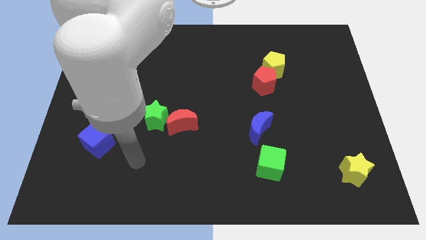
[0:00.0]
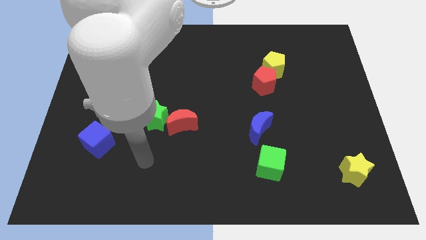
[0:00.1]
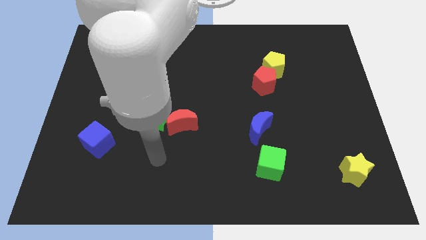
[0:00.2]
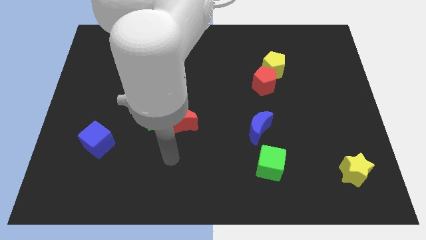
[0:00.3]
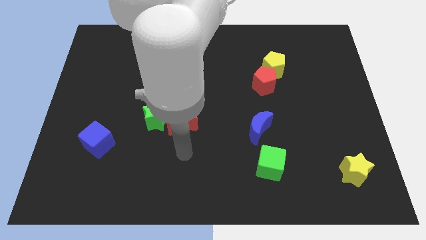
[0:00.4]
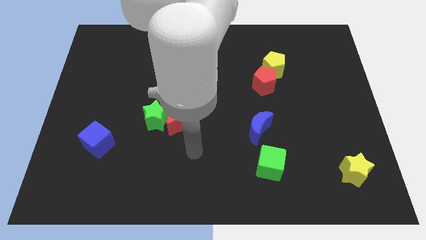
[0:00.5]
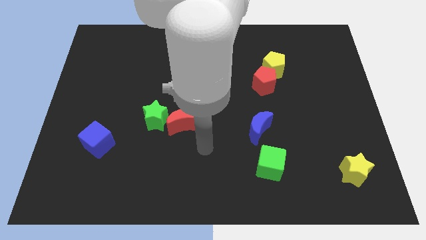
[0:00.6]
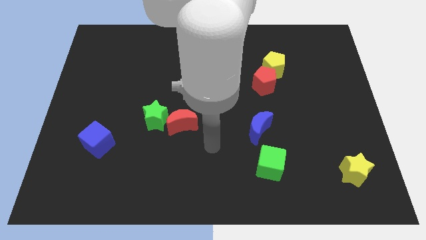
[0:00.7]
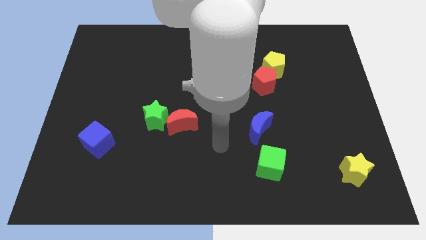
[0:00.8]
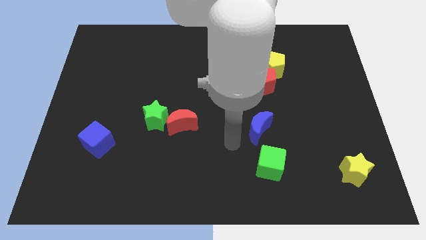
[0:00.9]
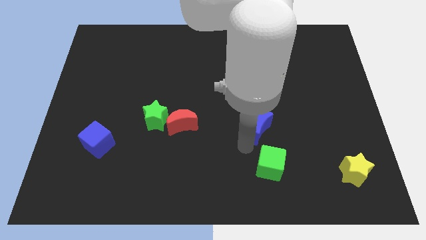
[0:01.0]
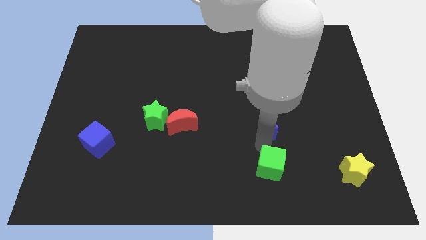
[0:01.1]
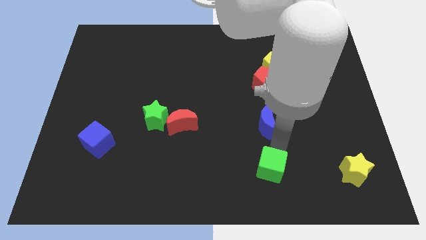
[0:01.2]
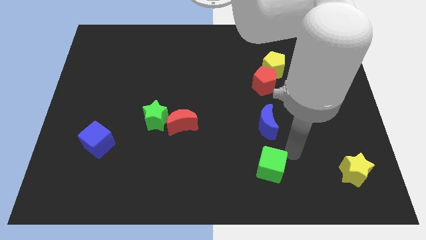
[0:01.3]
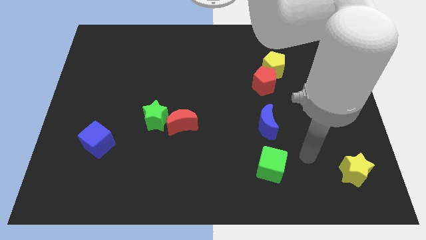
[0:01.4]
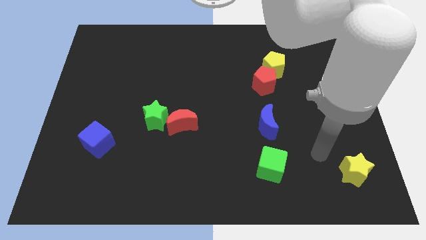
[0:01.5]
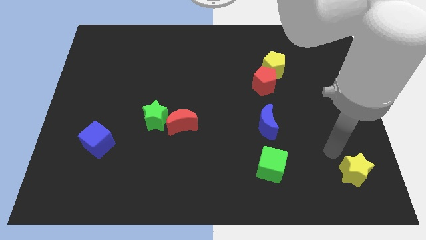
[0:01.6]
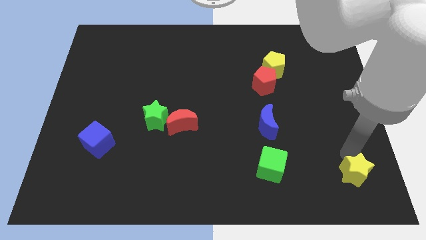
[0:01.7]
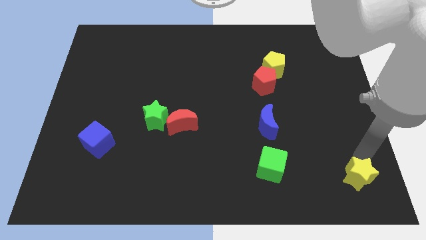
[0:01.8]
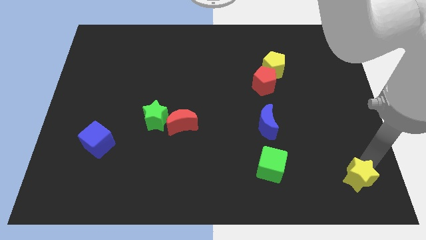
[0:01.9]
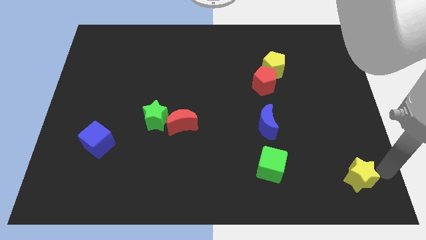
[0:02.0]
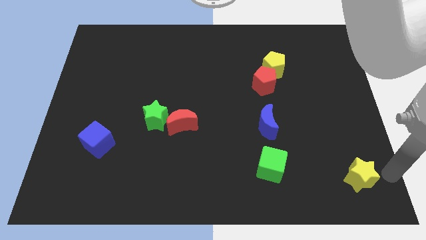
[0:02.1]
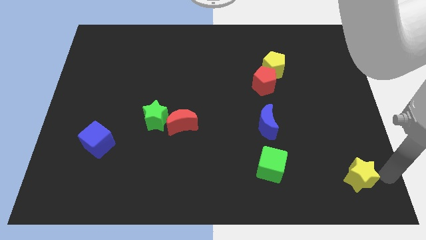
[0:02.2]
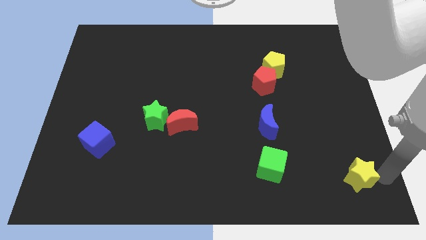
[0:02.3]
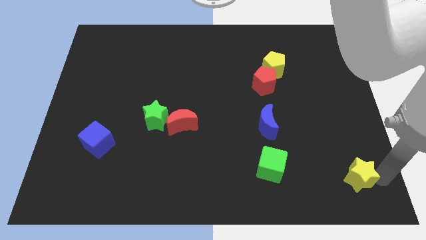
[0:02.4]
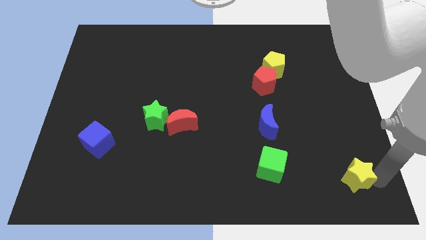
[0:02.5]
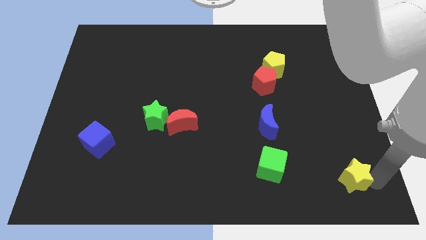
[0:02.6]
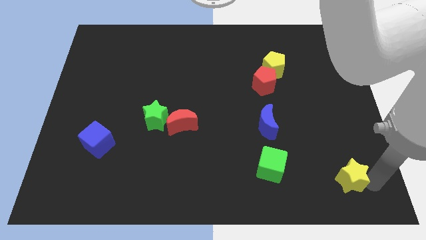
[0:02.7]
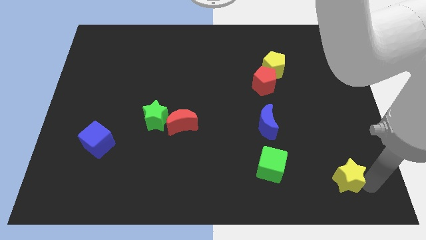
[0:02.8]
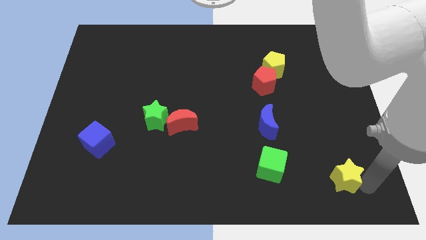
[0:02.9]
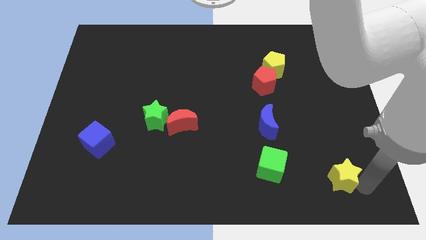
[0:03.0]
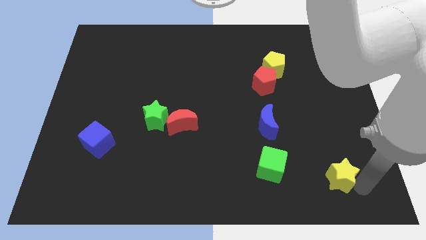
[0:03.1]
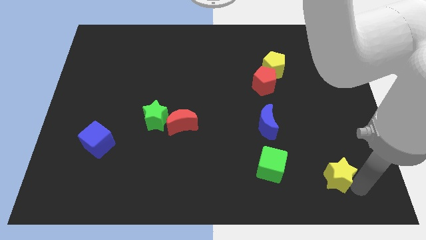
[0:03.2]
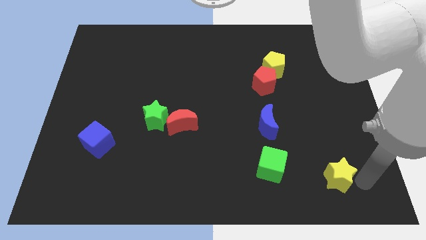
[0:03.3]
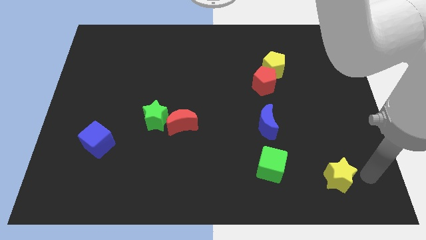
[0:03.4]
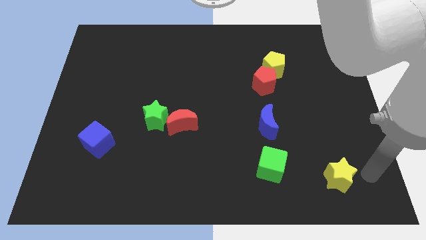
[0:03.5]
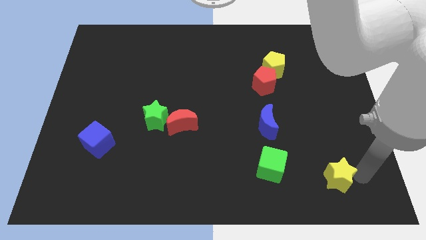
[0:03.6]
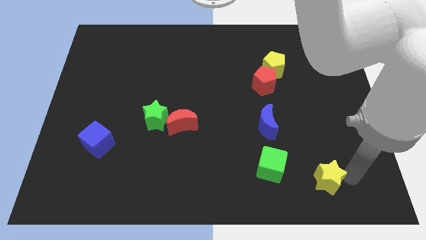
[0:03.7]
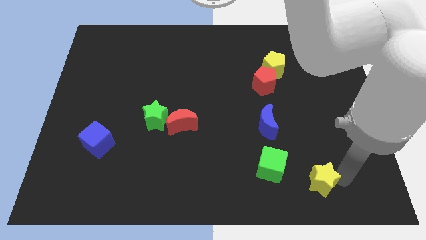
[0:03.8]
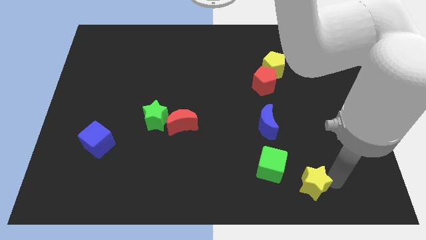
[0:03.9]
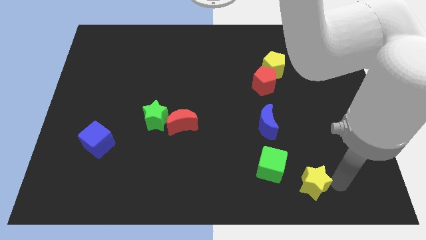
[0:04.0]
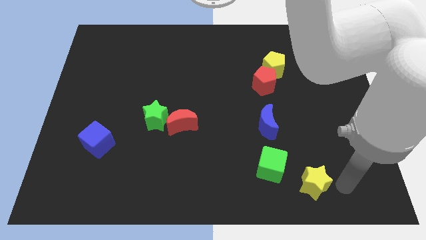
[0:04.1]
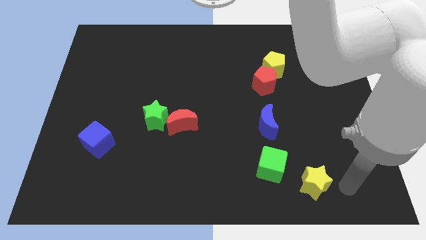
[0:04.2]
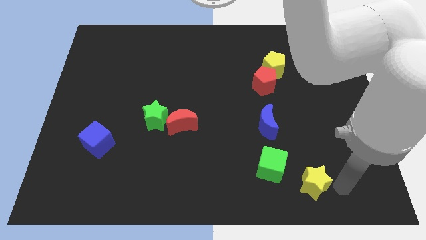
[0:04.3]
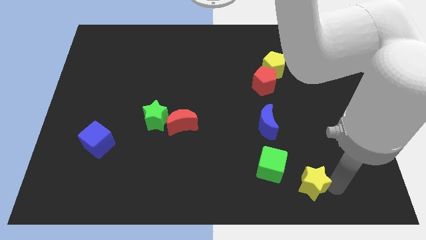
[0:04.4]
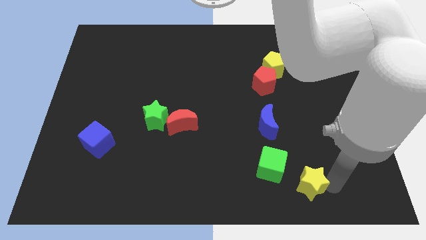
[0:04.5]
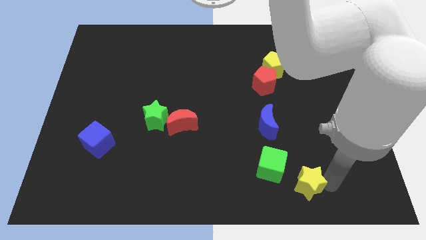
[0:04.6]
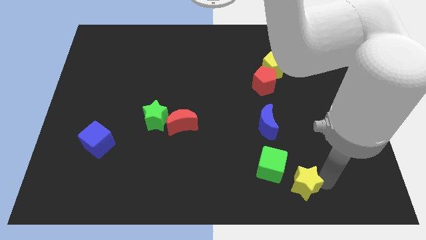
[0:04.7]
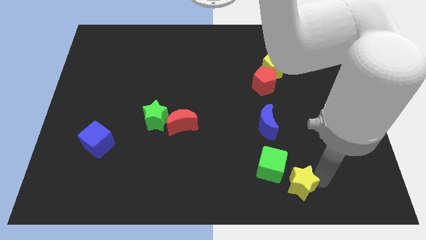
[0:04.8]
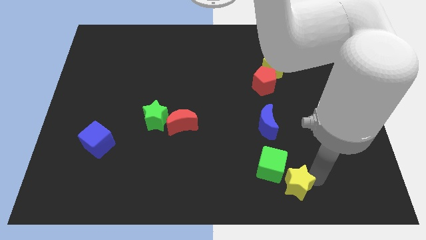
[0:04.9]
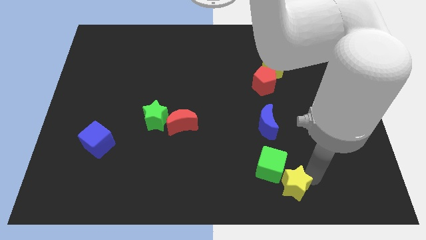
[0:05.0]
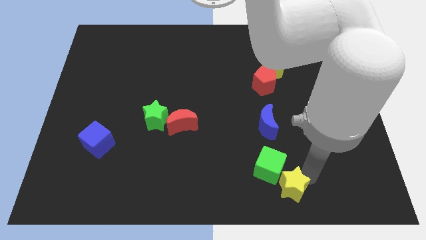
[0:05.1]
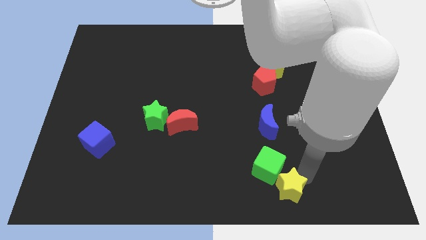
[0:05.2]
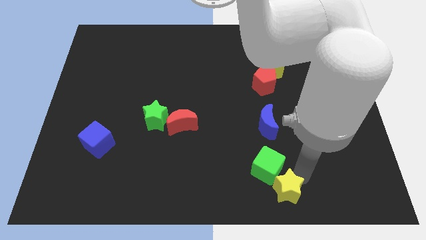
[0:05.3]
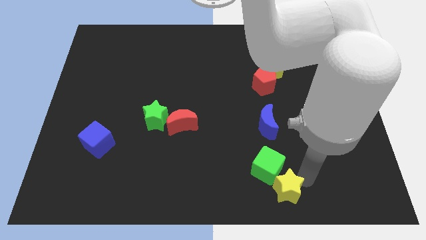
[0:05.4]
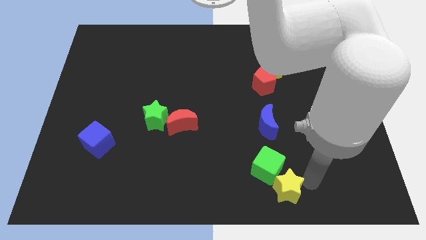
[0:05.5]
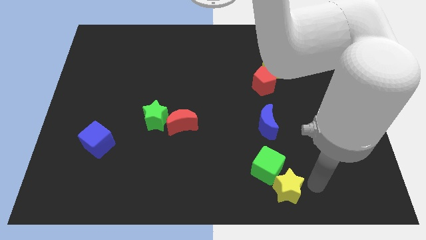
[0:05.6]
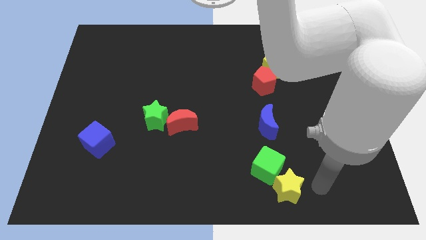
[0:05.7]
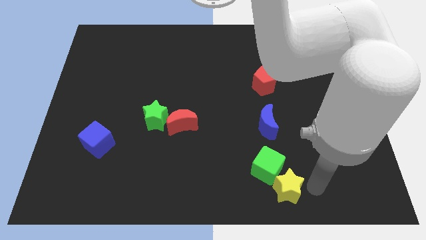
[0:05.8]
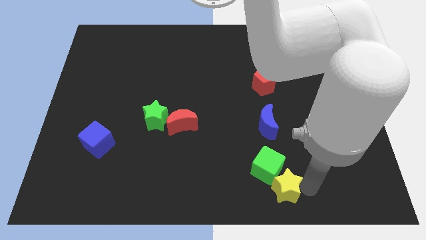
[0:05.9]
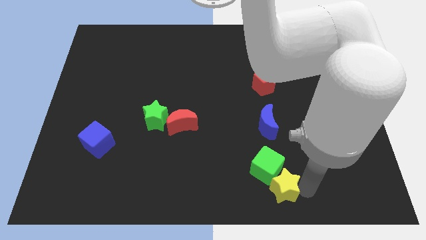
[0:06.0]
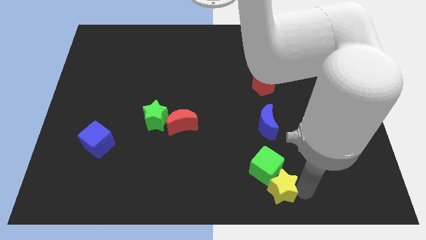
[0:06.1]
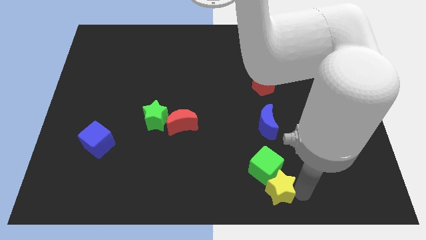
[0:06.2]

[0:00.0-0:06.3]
move the yellow star to the bottom

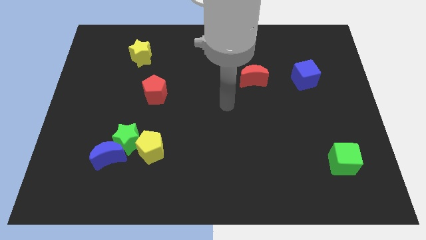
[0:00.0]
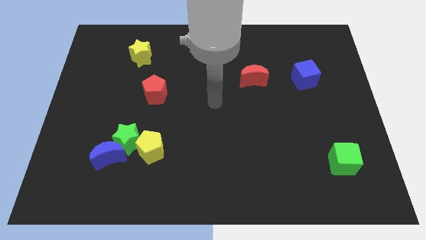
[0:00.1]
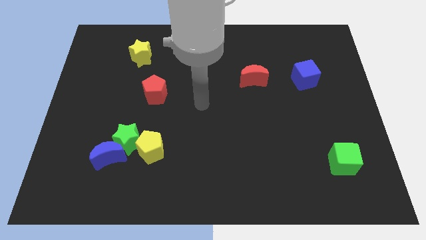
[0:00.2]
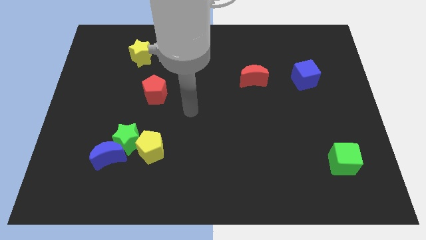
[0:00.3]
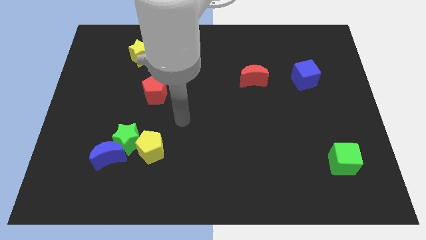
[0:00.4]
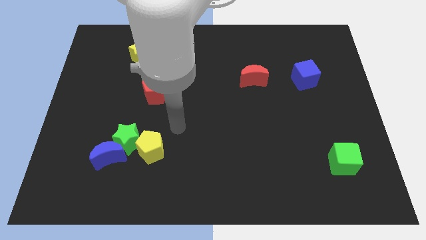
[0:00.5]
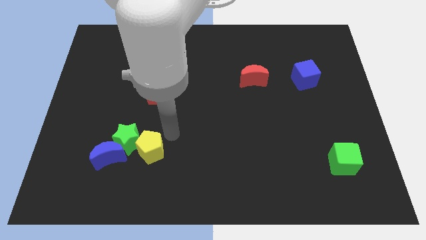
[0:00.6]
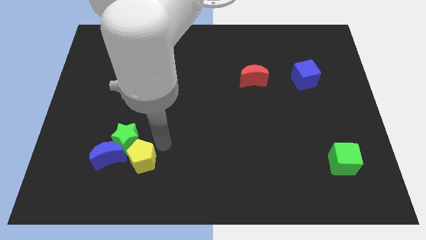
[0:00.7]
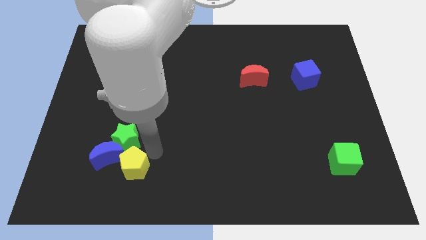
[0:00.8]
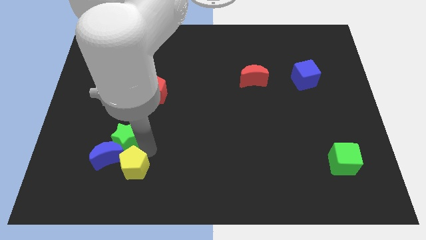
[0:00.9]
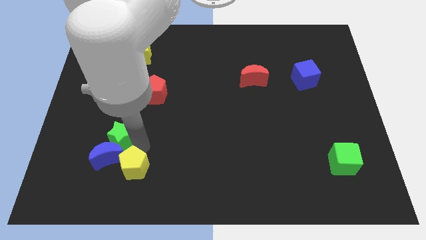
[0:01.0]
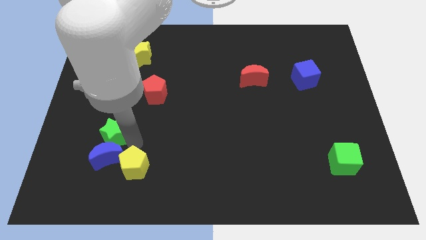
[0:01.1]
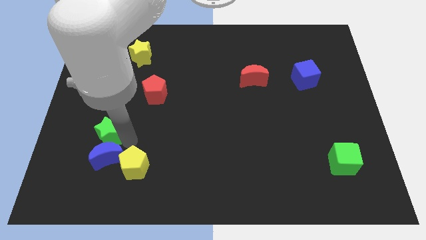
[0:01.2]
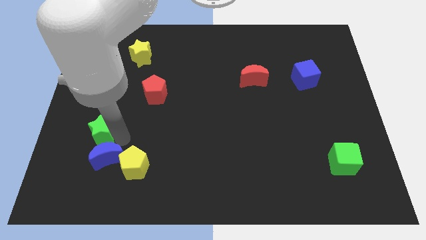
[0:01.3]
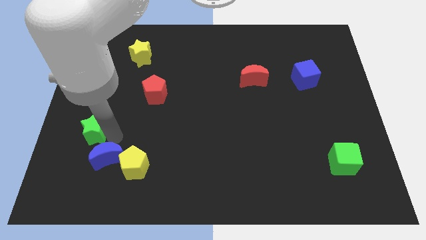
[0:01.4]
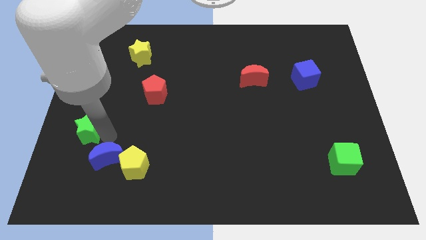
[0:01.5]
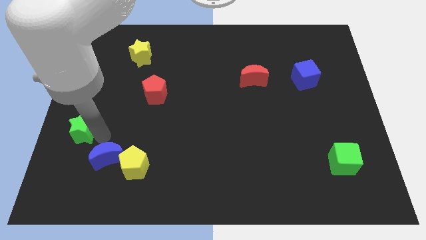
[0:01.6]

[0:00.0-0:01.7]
slide the green star to the left side
